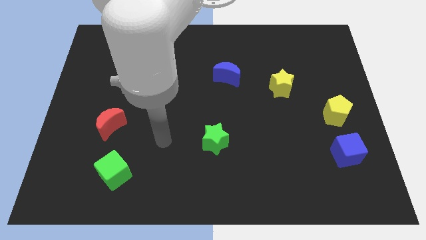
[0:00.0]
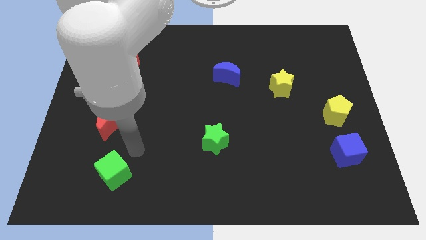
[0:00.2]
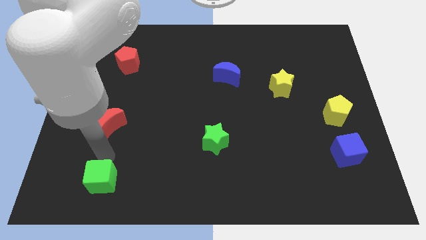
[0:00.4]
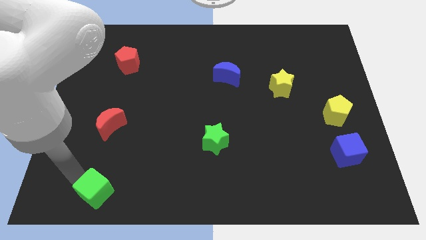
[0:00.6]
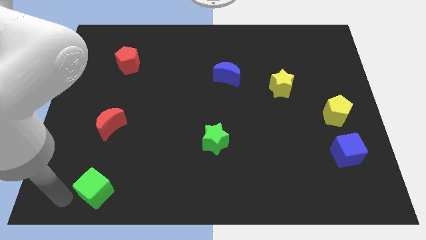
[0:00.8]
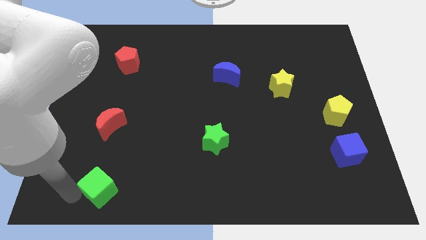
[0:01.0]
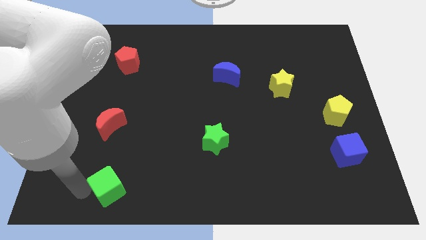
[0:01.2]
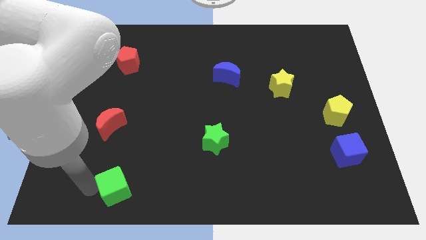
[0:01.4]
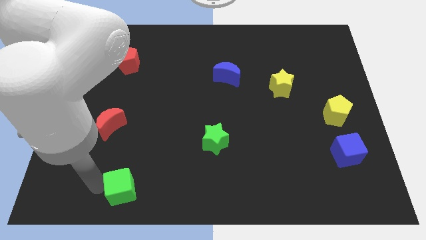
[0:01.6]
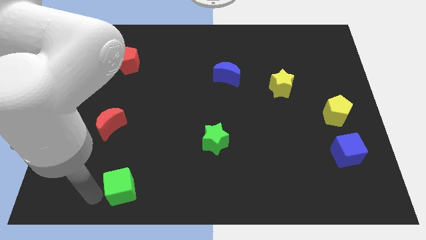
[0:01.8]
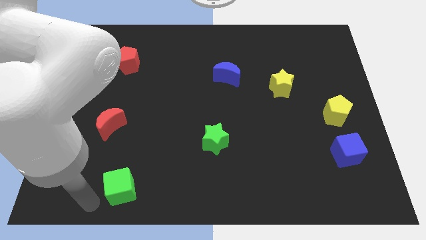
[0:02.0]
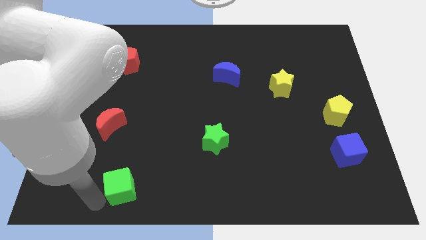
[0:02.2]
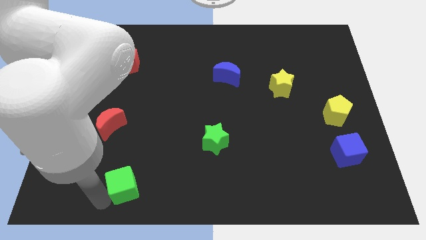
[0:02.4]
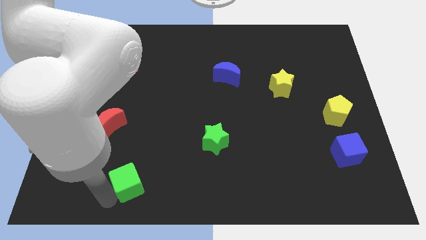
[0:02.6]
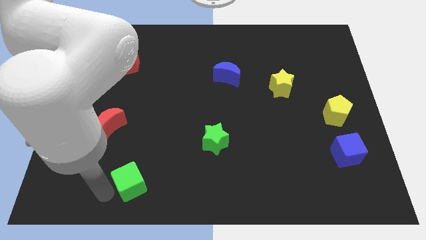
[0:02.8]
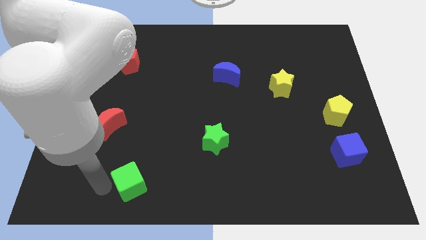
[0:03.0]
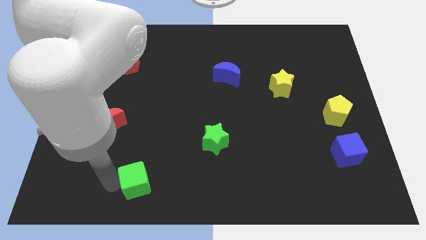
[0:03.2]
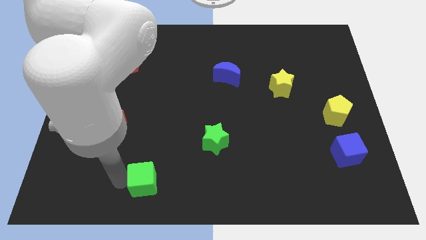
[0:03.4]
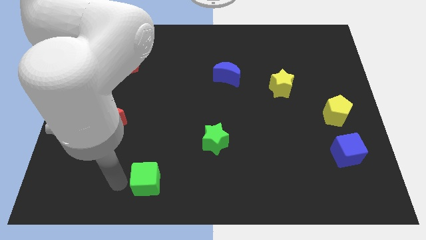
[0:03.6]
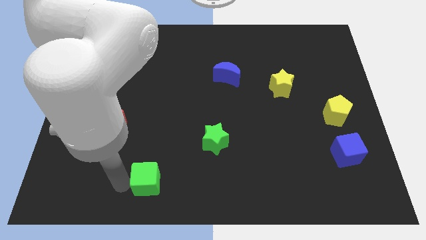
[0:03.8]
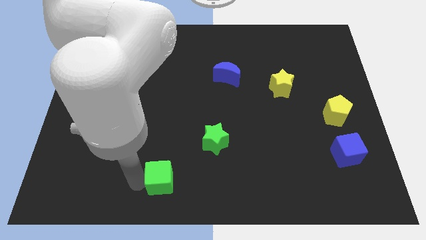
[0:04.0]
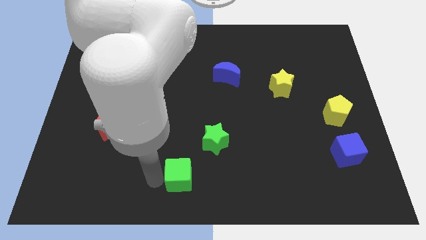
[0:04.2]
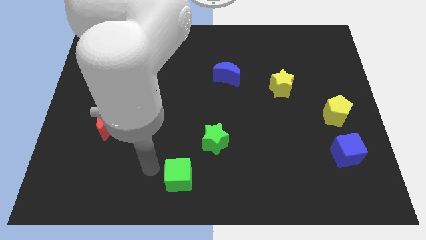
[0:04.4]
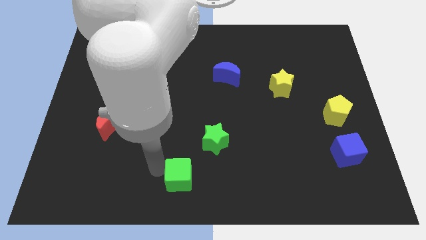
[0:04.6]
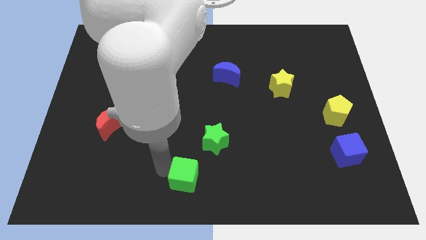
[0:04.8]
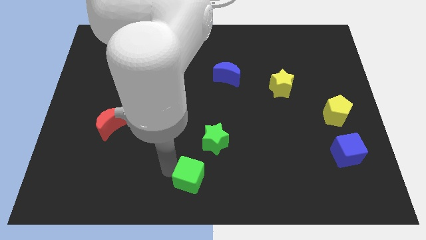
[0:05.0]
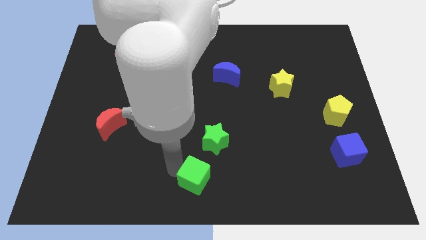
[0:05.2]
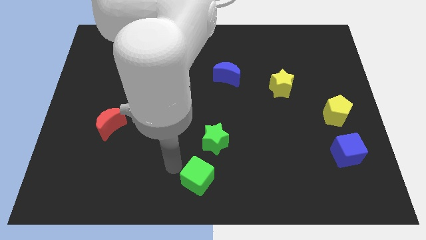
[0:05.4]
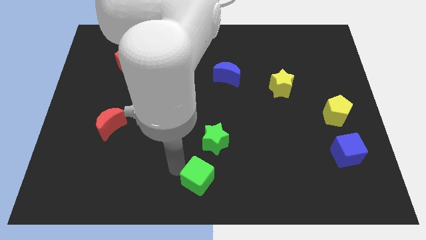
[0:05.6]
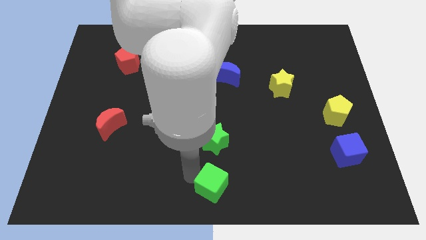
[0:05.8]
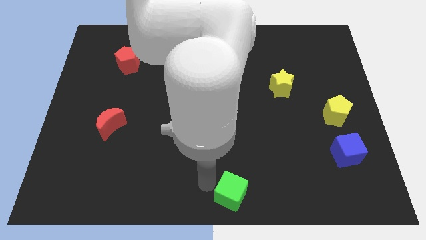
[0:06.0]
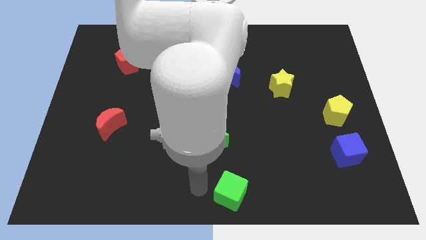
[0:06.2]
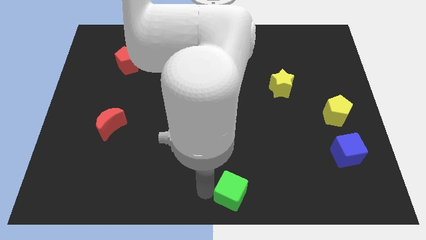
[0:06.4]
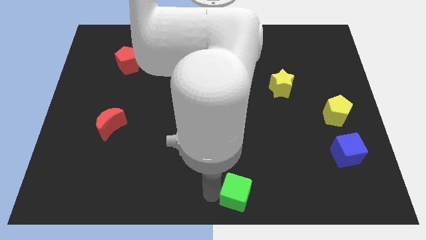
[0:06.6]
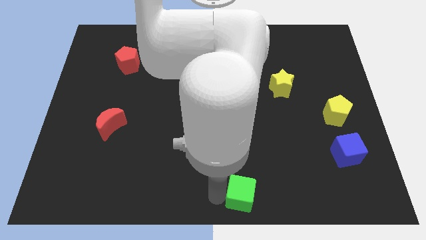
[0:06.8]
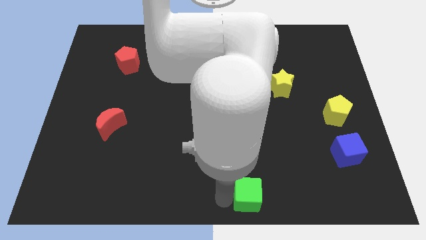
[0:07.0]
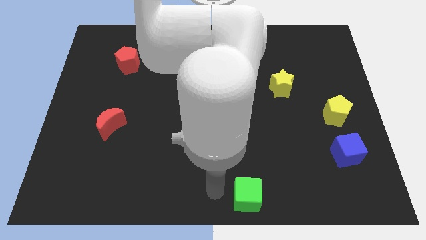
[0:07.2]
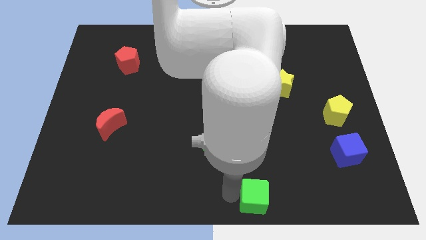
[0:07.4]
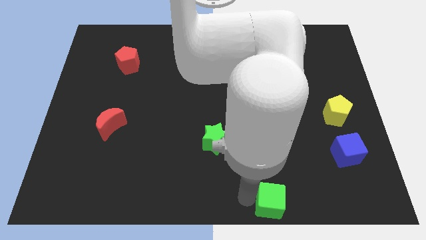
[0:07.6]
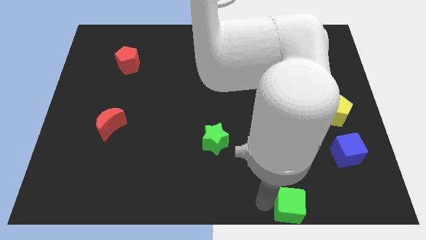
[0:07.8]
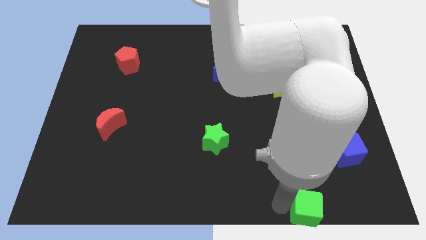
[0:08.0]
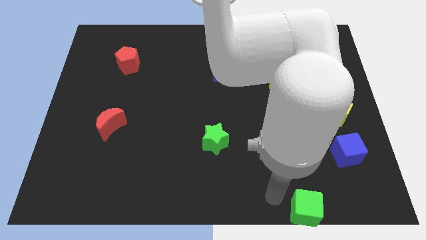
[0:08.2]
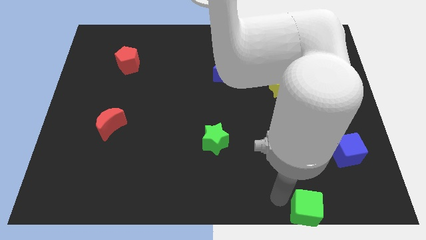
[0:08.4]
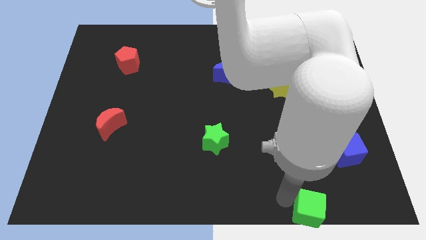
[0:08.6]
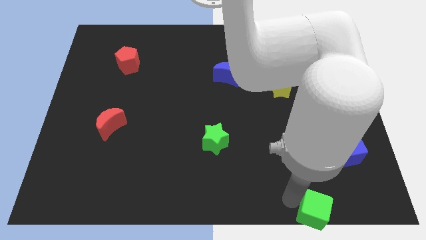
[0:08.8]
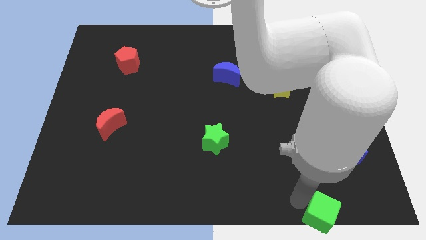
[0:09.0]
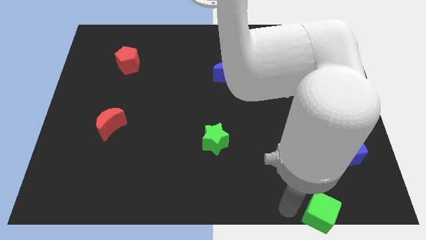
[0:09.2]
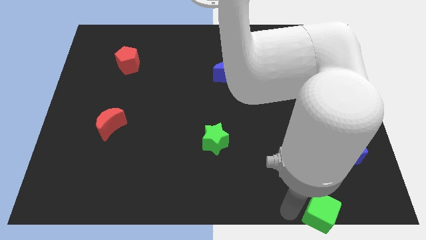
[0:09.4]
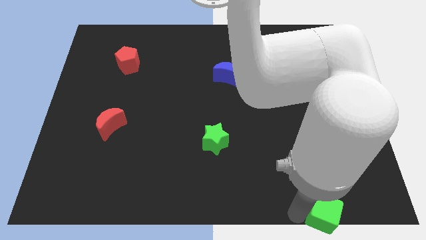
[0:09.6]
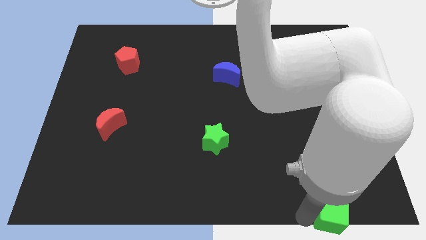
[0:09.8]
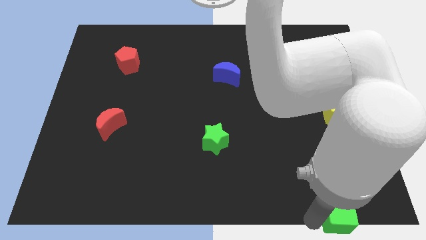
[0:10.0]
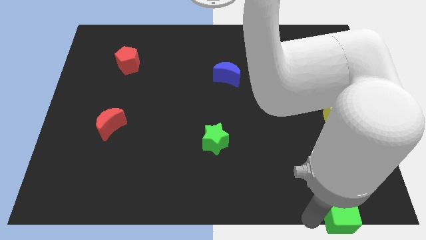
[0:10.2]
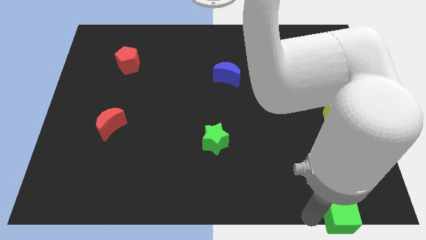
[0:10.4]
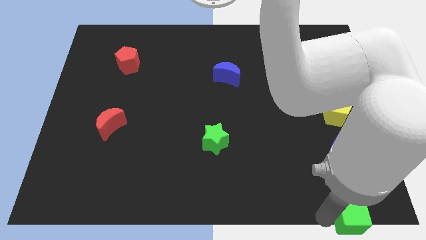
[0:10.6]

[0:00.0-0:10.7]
push the green cube to the bottom right

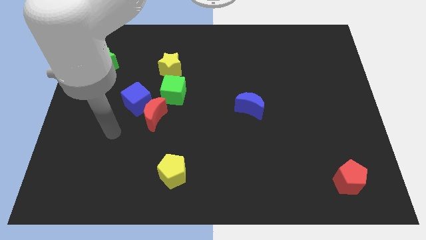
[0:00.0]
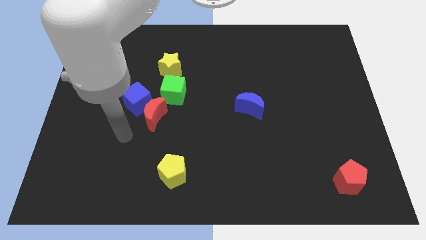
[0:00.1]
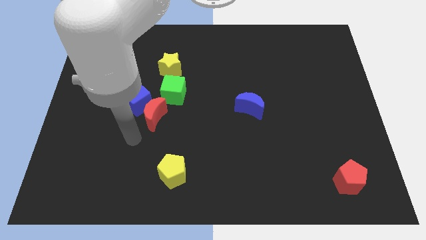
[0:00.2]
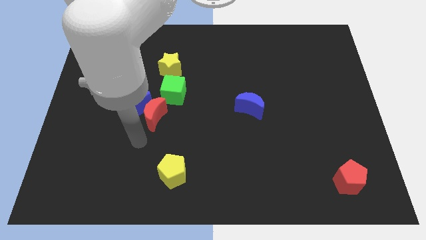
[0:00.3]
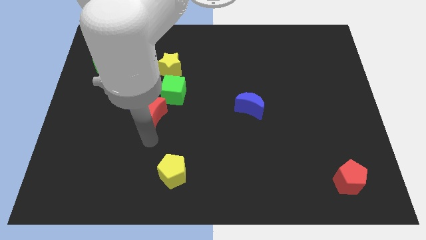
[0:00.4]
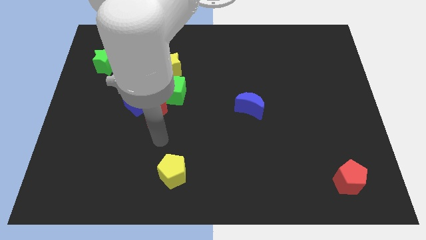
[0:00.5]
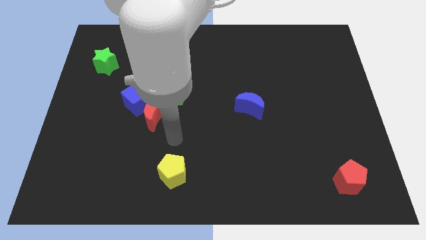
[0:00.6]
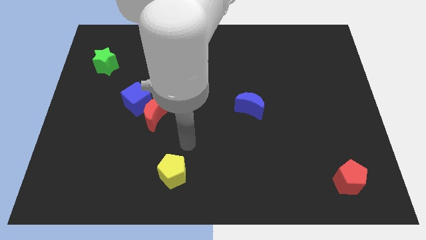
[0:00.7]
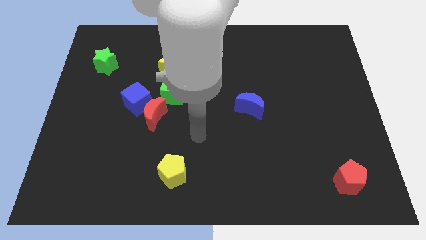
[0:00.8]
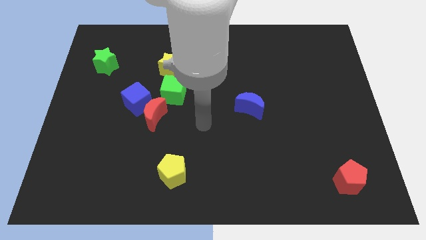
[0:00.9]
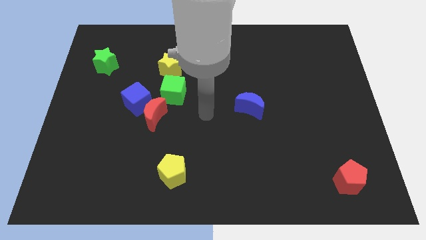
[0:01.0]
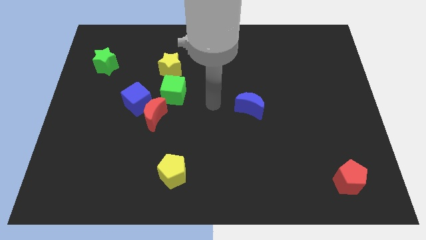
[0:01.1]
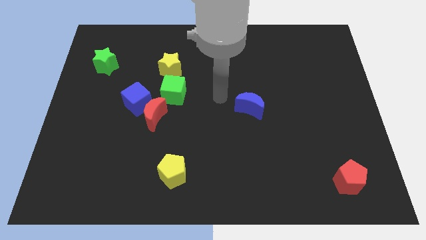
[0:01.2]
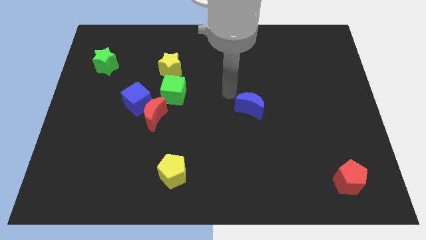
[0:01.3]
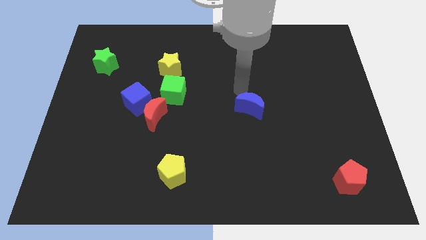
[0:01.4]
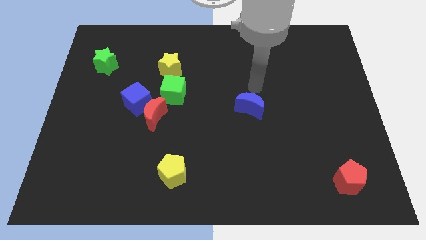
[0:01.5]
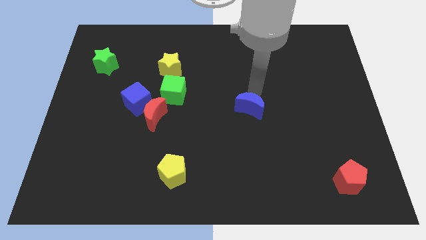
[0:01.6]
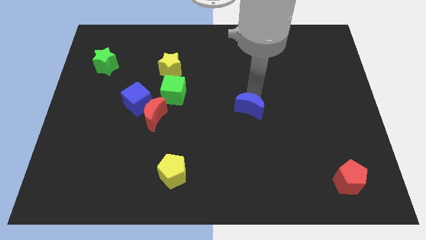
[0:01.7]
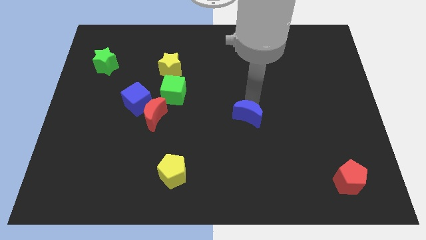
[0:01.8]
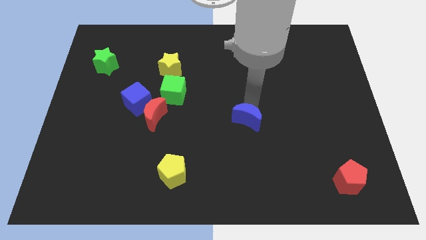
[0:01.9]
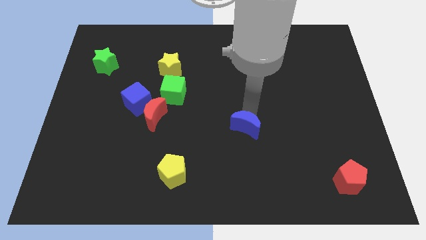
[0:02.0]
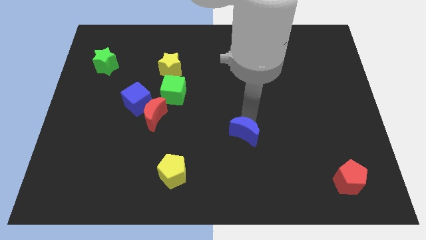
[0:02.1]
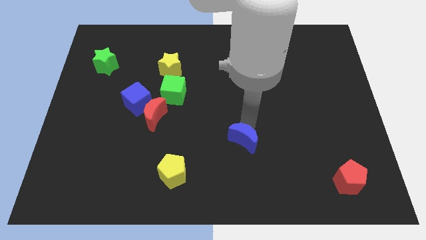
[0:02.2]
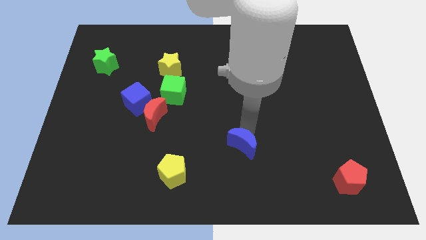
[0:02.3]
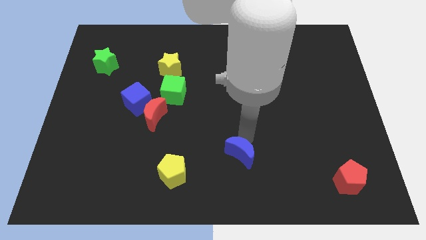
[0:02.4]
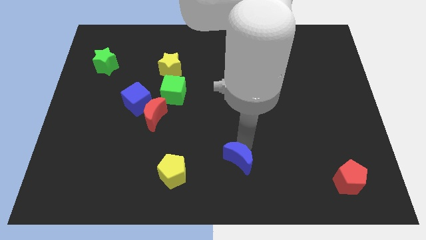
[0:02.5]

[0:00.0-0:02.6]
push the blue moon to the bottom side
